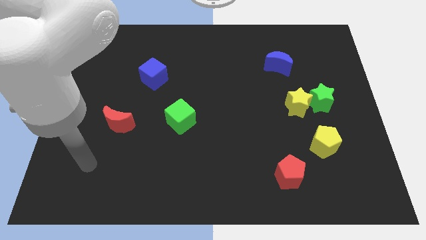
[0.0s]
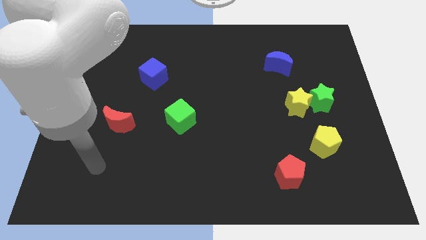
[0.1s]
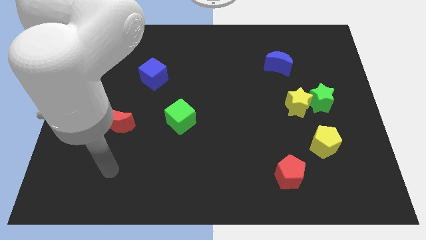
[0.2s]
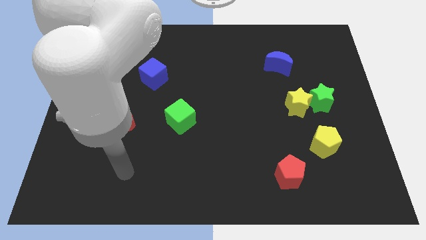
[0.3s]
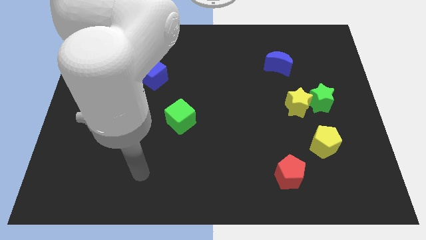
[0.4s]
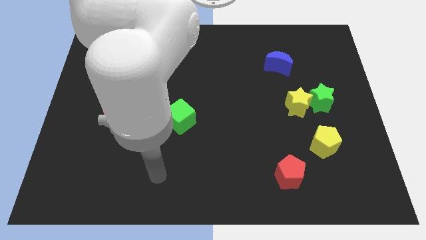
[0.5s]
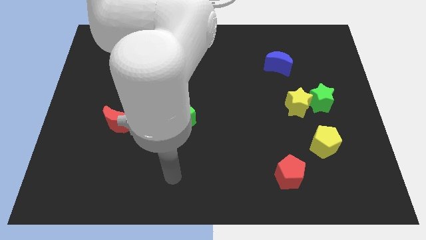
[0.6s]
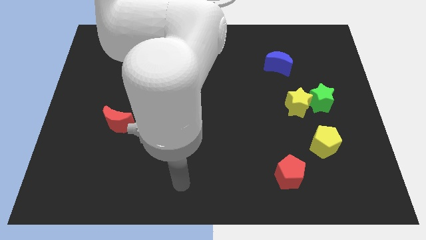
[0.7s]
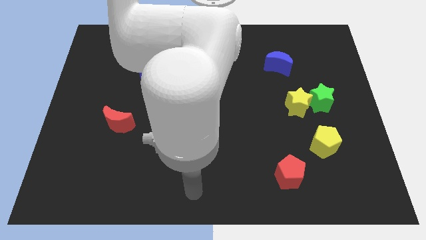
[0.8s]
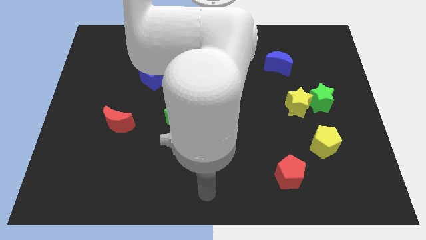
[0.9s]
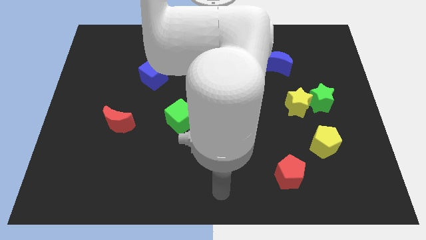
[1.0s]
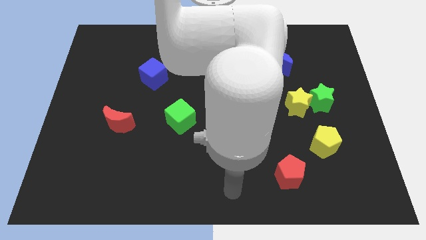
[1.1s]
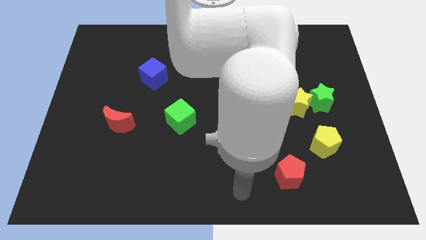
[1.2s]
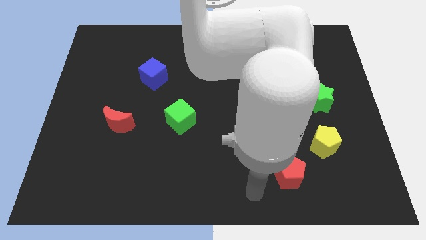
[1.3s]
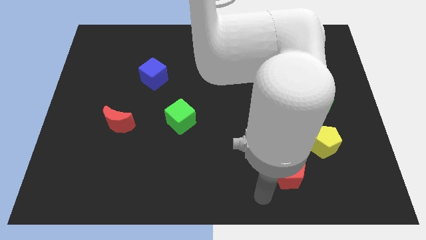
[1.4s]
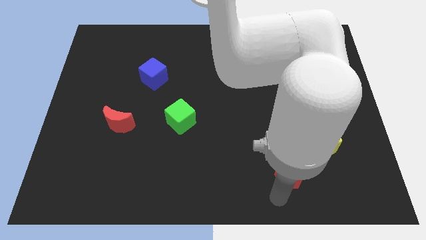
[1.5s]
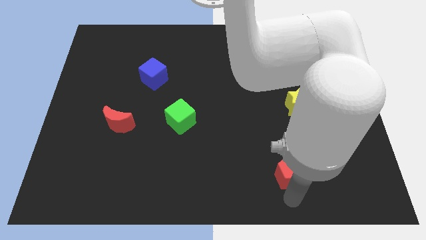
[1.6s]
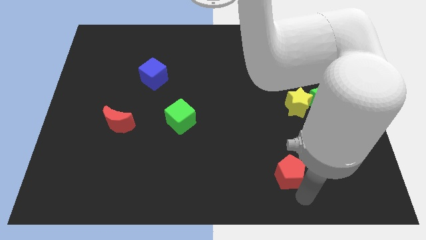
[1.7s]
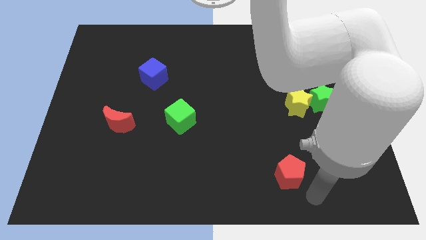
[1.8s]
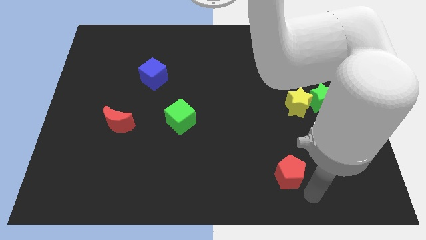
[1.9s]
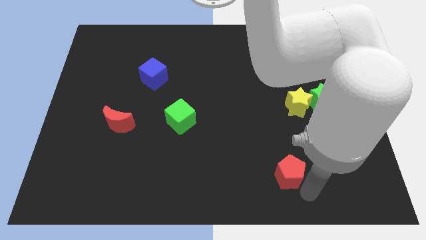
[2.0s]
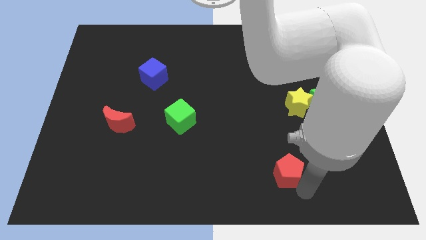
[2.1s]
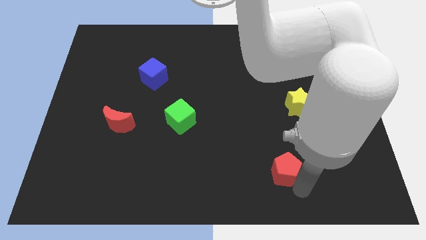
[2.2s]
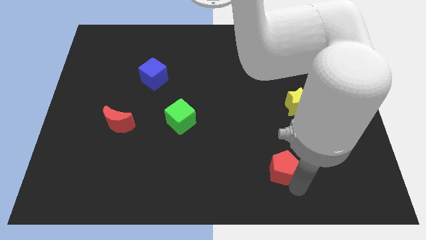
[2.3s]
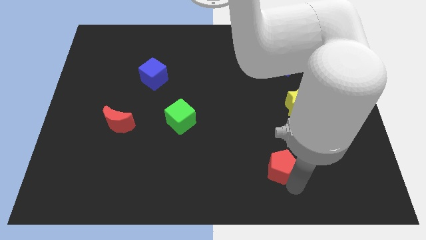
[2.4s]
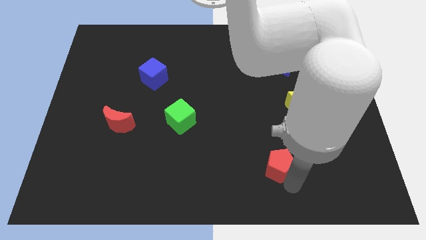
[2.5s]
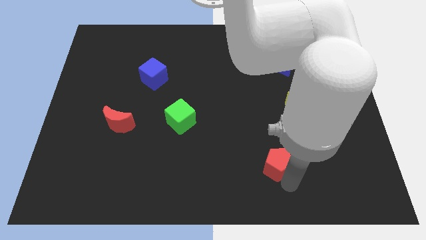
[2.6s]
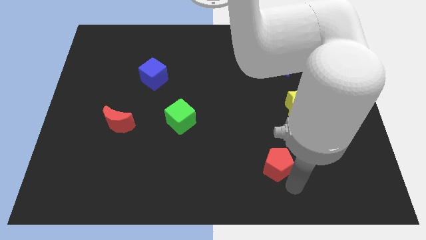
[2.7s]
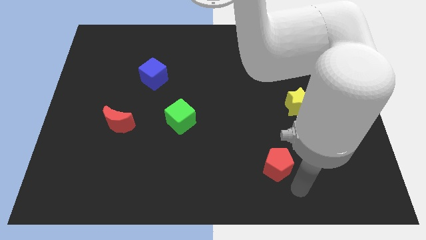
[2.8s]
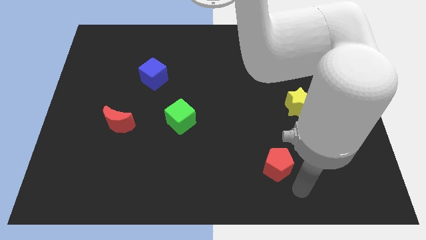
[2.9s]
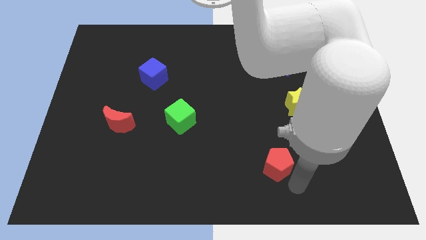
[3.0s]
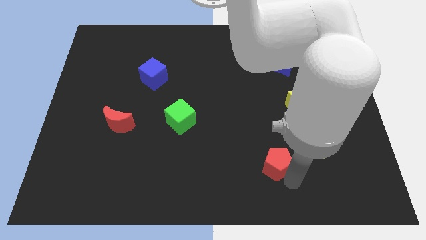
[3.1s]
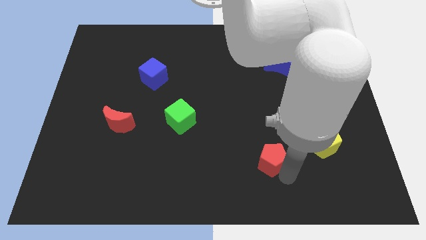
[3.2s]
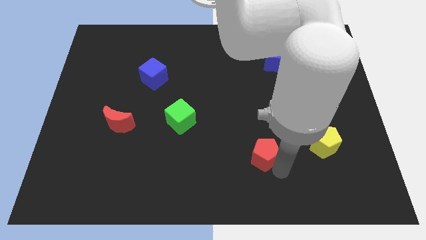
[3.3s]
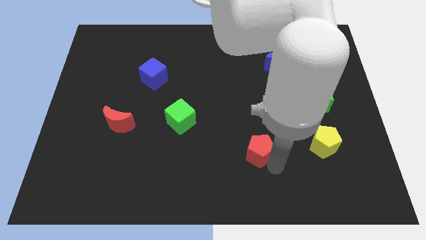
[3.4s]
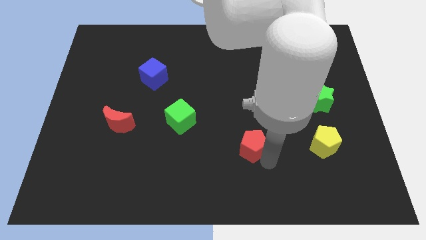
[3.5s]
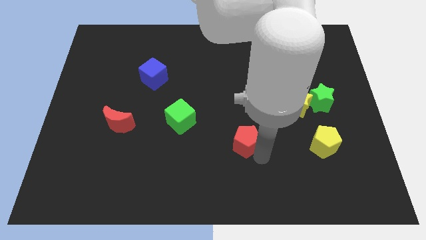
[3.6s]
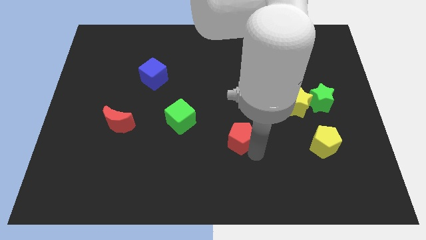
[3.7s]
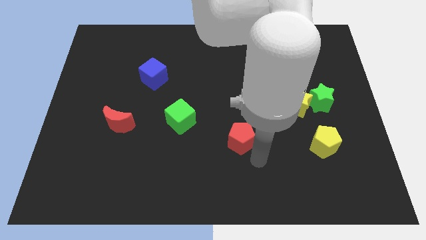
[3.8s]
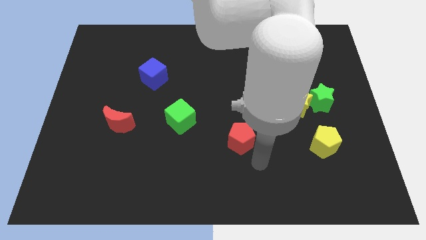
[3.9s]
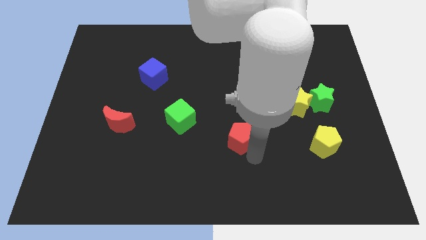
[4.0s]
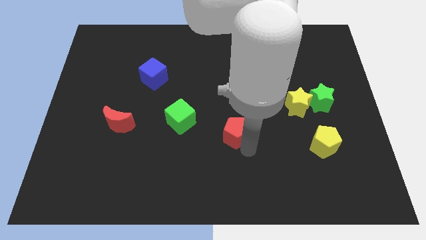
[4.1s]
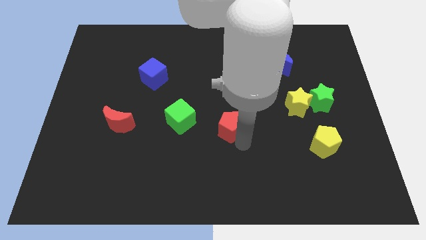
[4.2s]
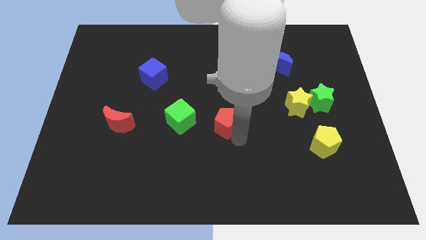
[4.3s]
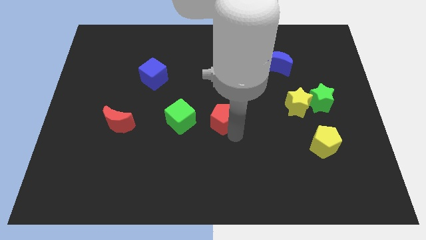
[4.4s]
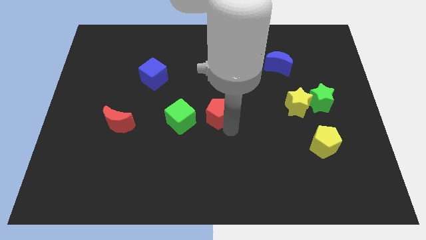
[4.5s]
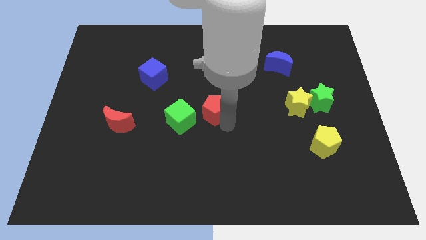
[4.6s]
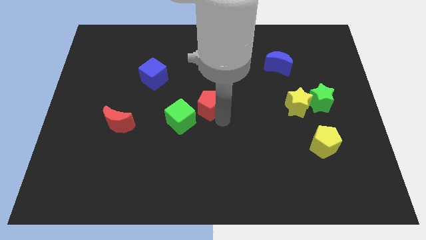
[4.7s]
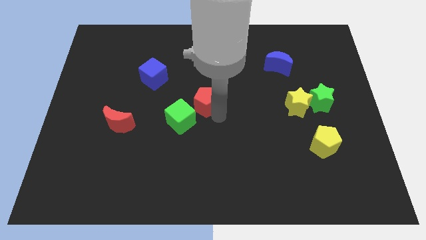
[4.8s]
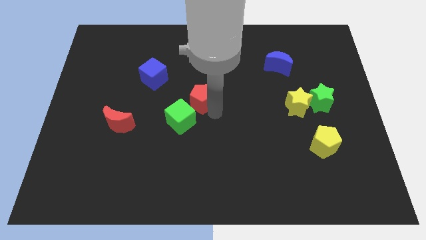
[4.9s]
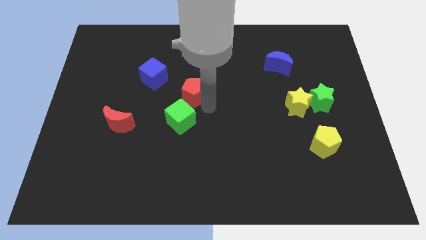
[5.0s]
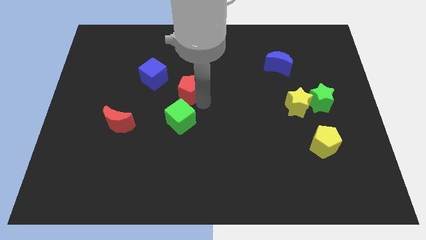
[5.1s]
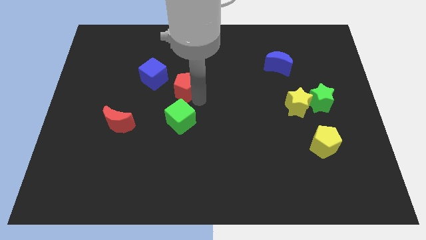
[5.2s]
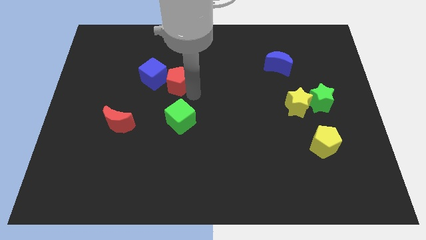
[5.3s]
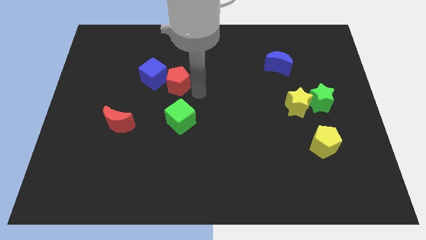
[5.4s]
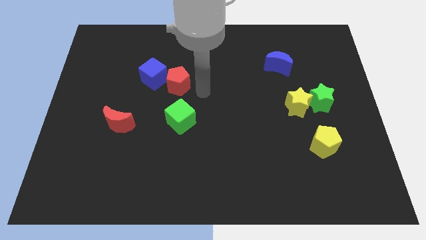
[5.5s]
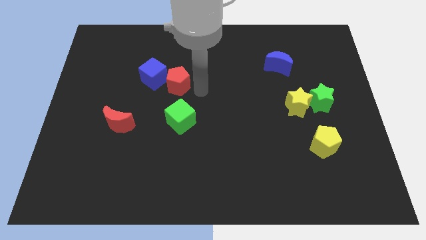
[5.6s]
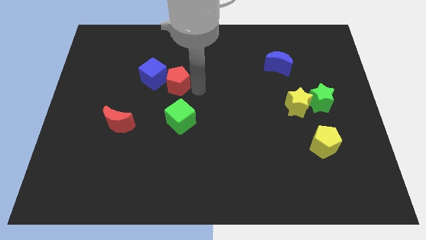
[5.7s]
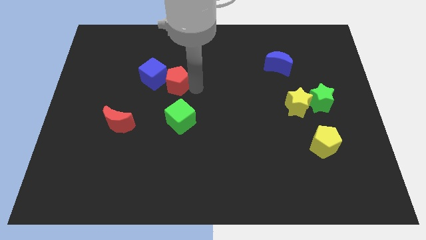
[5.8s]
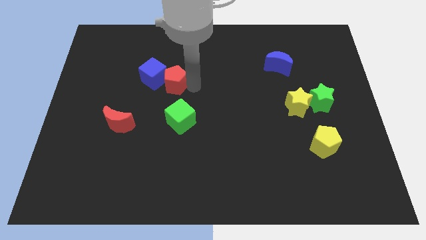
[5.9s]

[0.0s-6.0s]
move the red pentagon next to the blue cube
